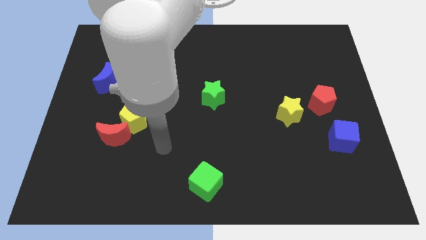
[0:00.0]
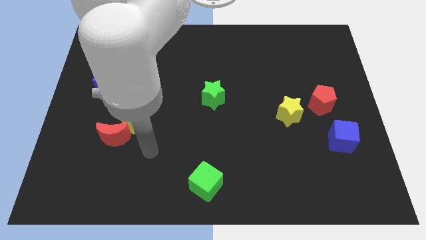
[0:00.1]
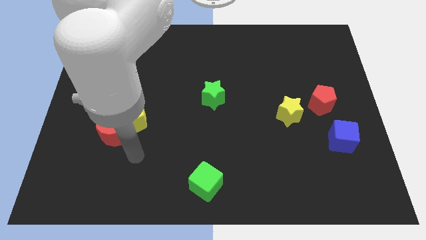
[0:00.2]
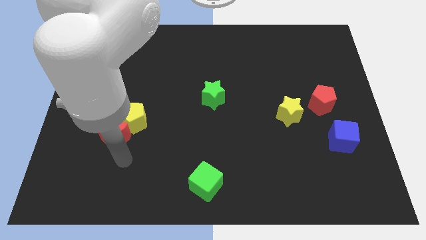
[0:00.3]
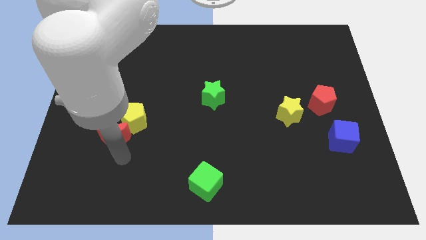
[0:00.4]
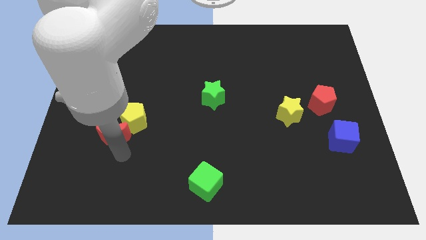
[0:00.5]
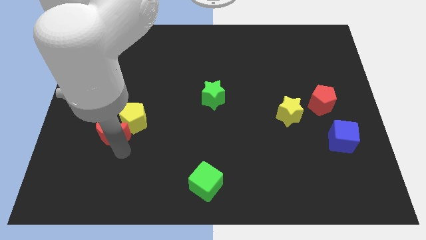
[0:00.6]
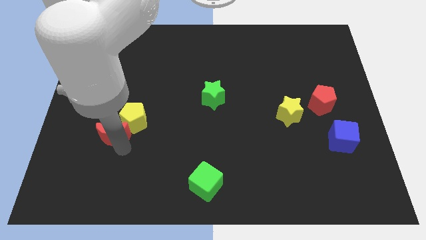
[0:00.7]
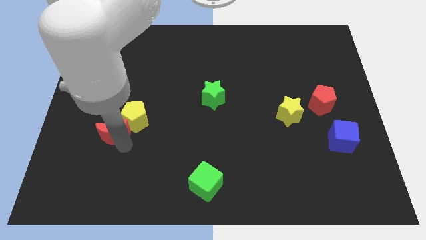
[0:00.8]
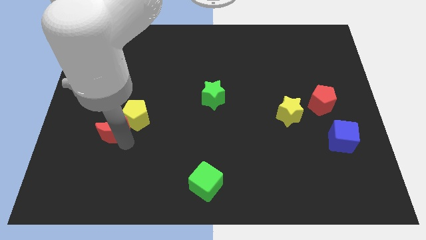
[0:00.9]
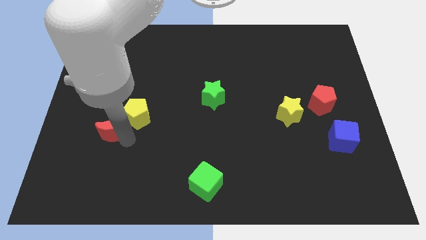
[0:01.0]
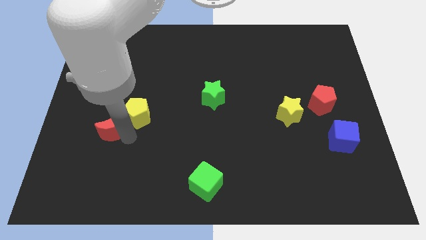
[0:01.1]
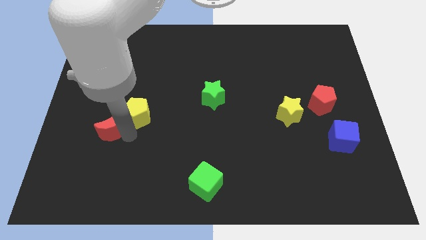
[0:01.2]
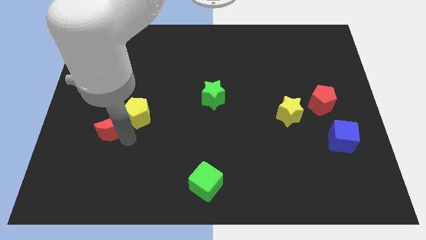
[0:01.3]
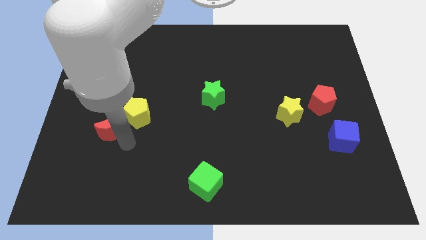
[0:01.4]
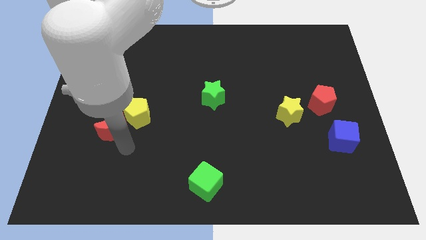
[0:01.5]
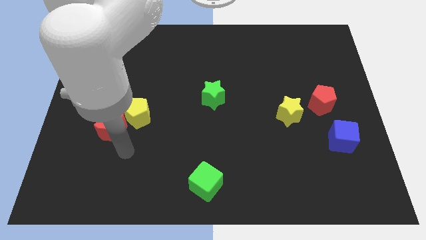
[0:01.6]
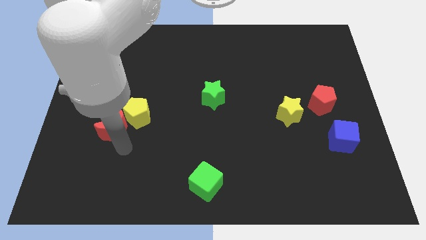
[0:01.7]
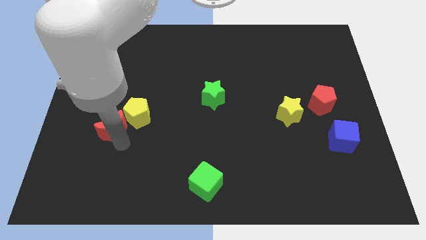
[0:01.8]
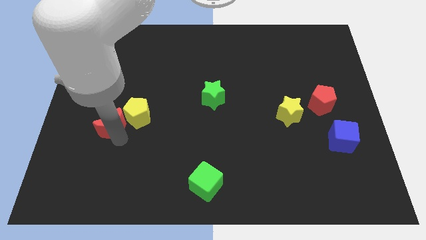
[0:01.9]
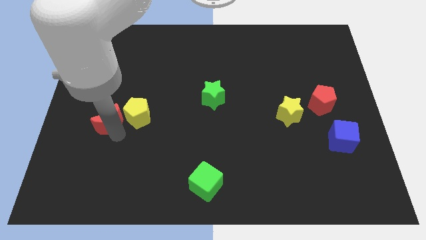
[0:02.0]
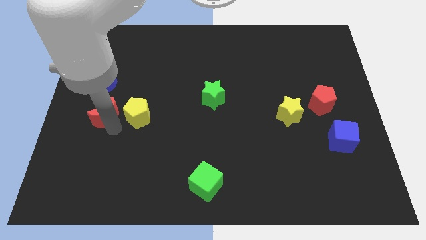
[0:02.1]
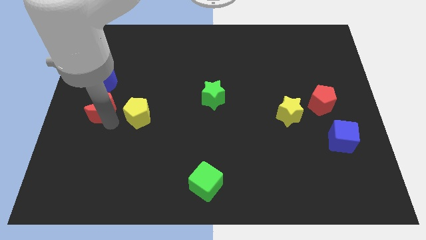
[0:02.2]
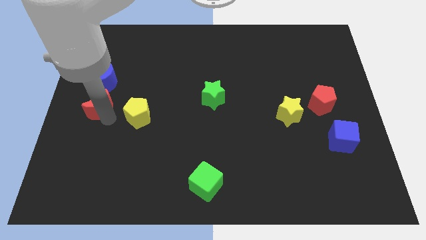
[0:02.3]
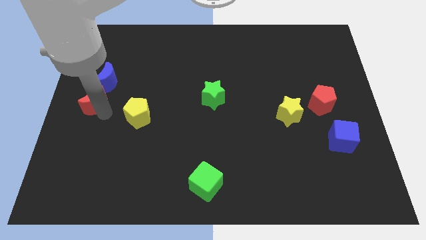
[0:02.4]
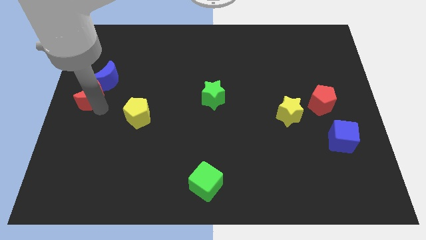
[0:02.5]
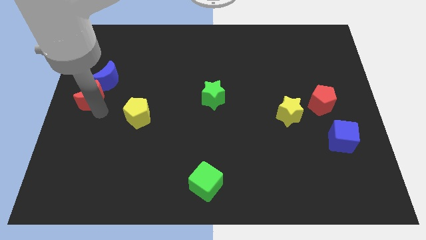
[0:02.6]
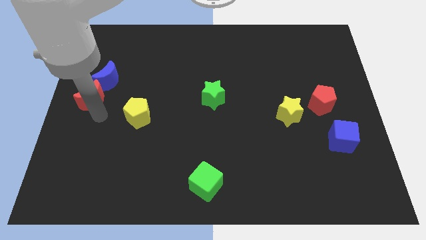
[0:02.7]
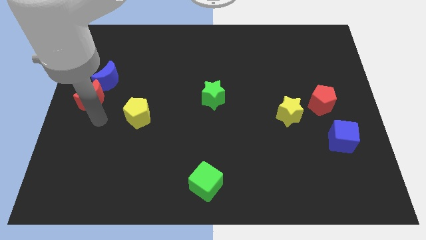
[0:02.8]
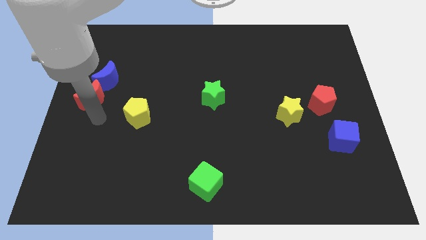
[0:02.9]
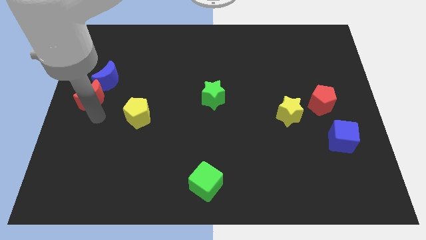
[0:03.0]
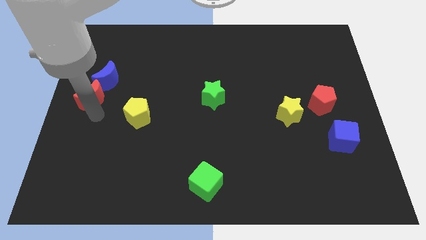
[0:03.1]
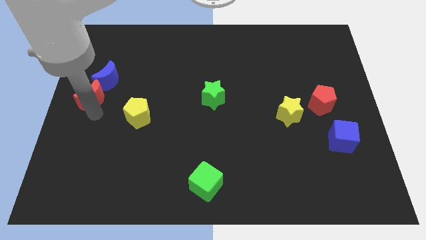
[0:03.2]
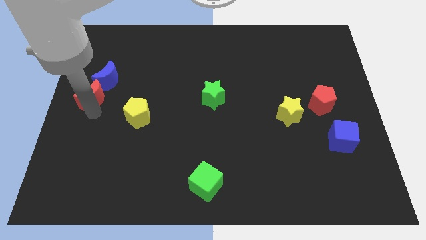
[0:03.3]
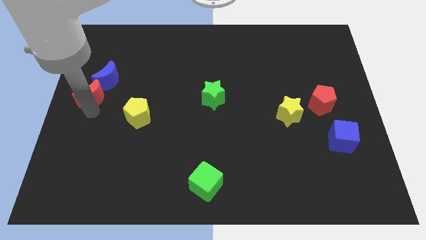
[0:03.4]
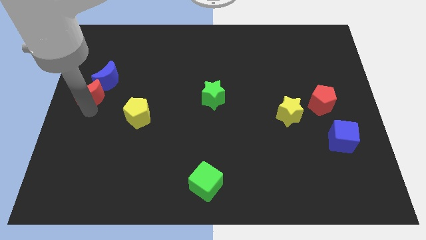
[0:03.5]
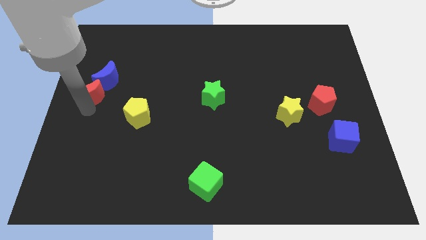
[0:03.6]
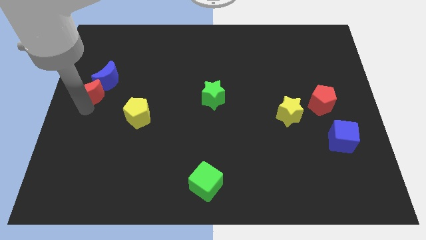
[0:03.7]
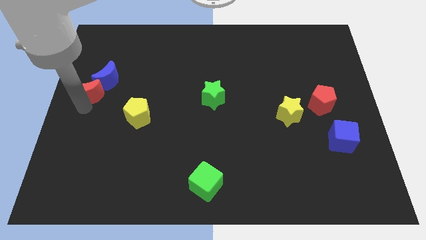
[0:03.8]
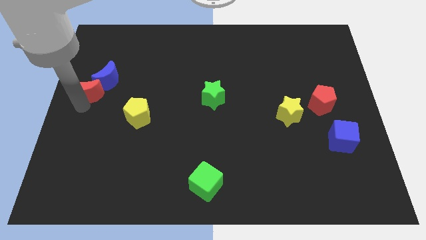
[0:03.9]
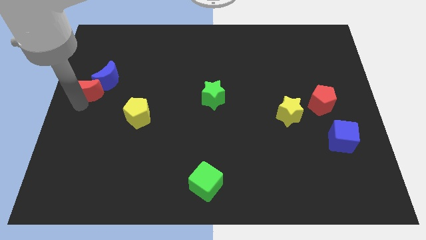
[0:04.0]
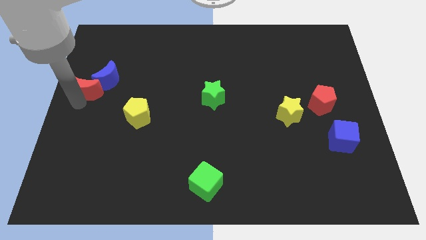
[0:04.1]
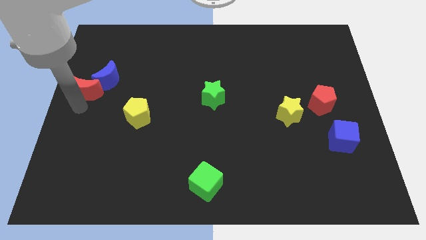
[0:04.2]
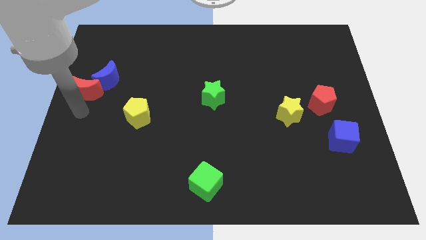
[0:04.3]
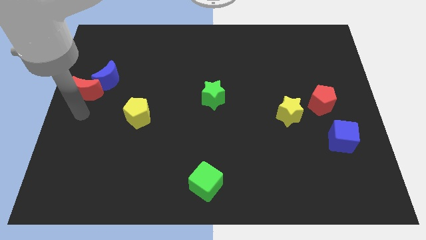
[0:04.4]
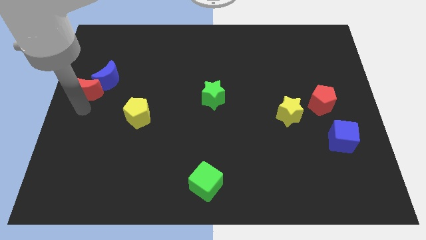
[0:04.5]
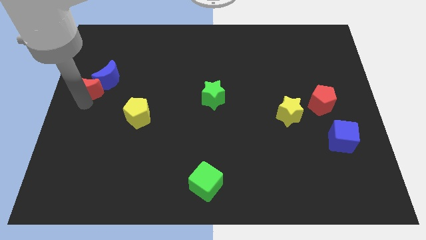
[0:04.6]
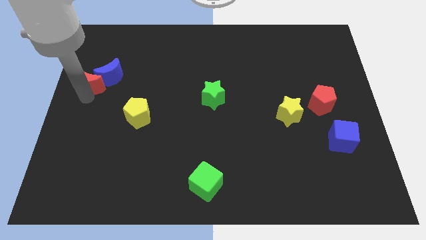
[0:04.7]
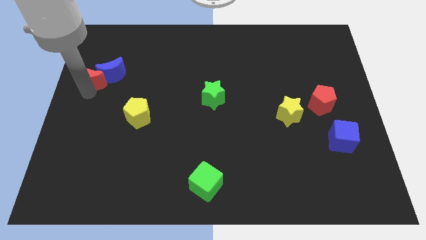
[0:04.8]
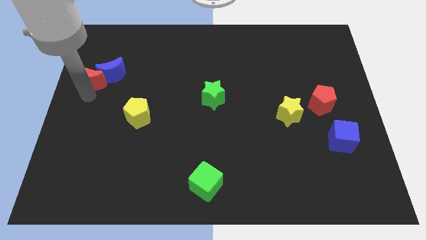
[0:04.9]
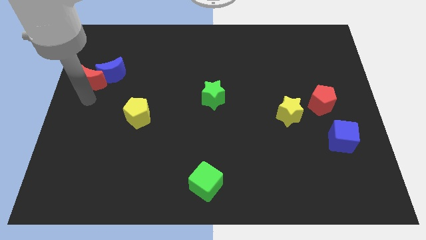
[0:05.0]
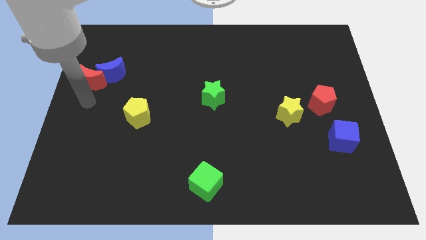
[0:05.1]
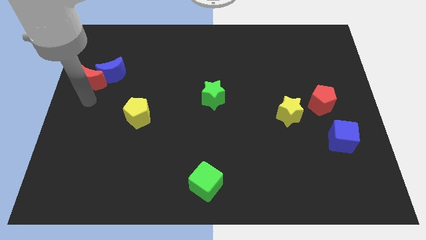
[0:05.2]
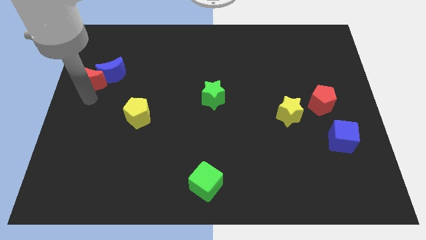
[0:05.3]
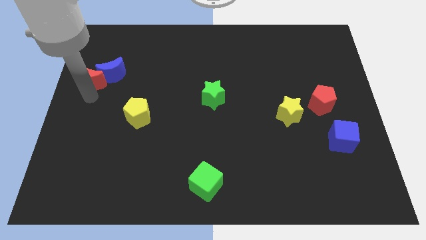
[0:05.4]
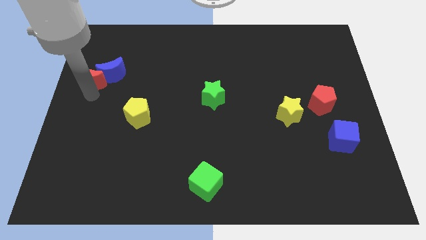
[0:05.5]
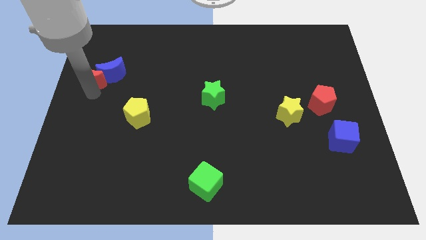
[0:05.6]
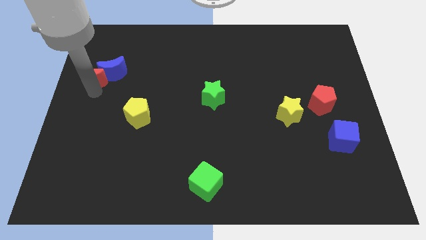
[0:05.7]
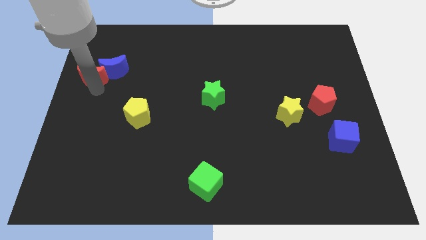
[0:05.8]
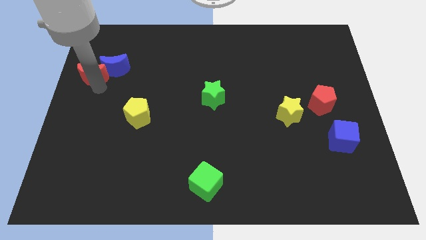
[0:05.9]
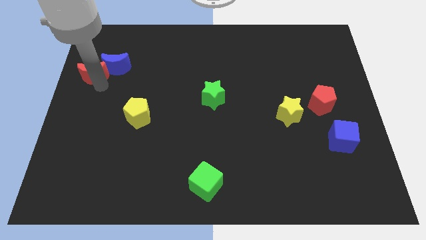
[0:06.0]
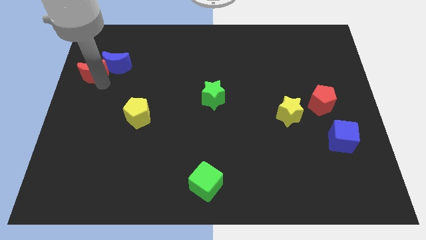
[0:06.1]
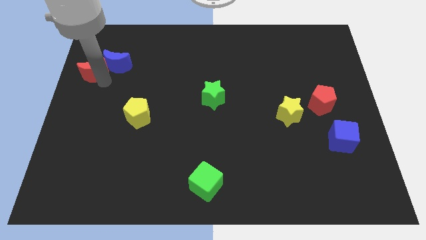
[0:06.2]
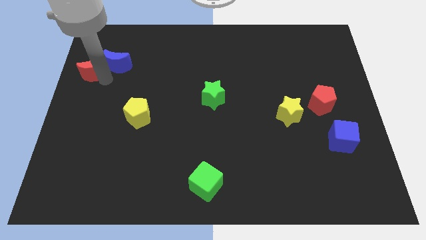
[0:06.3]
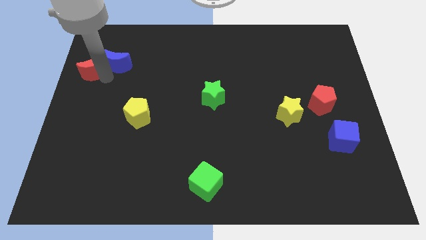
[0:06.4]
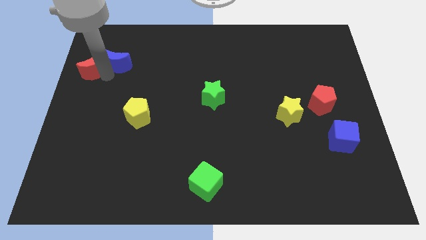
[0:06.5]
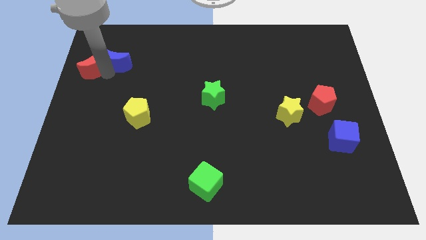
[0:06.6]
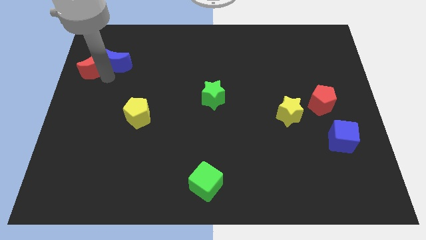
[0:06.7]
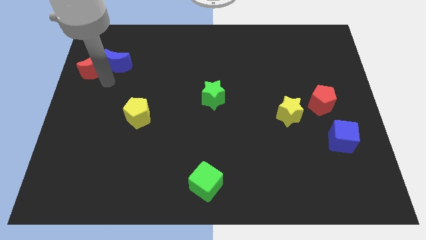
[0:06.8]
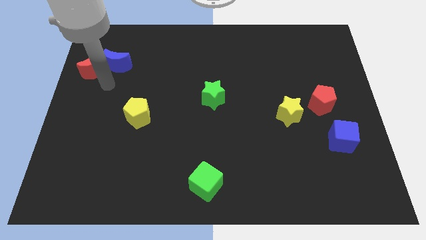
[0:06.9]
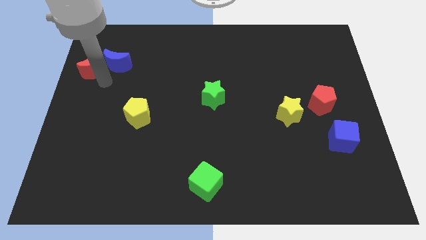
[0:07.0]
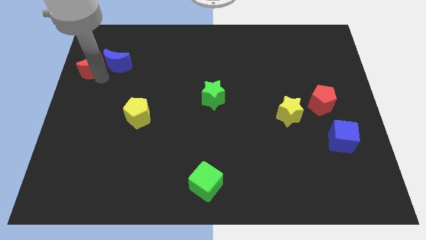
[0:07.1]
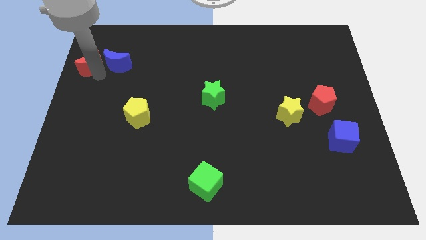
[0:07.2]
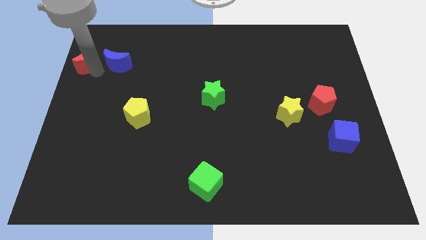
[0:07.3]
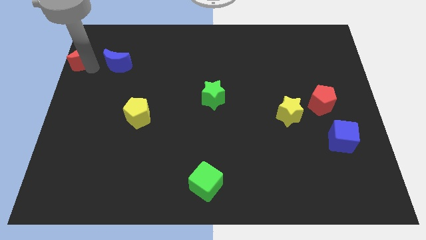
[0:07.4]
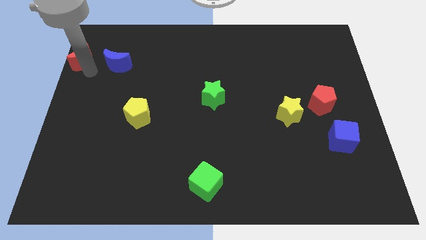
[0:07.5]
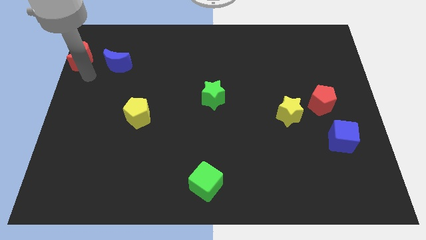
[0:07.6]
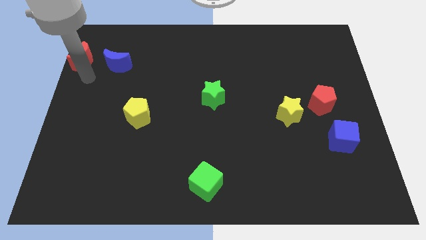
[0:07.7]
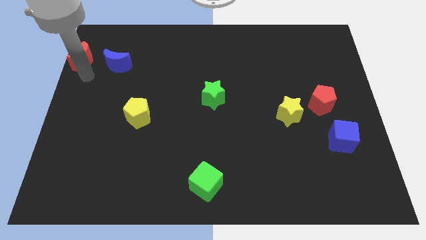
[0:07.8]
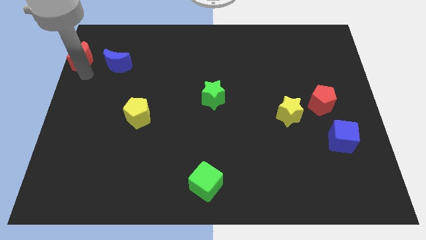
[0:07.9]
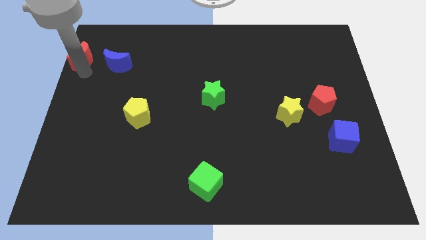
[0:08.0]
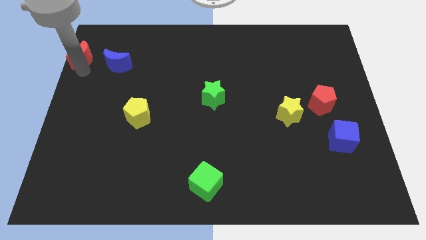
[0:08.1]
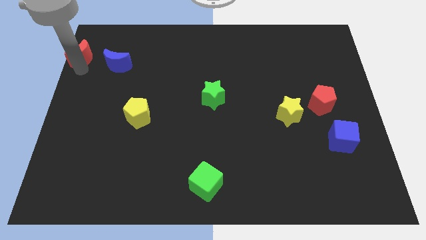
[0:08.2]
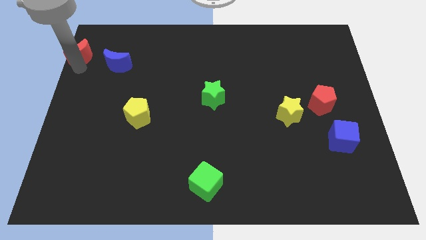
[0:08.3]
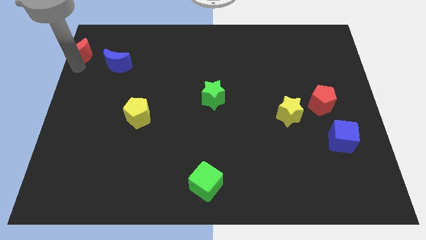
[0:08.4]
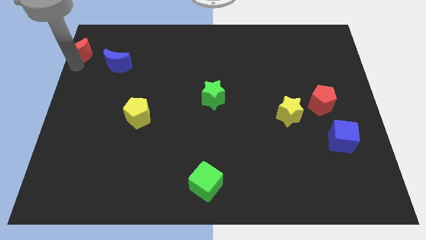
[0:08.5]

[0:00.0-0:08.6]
slide the red moon to the top left corner
